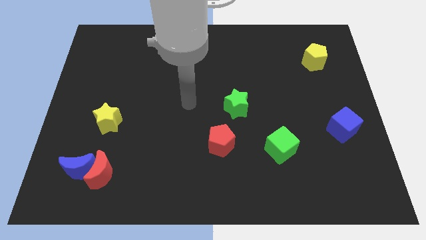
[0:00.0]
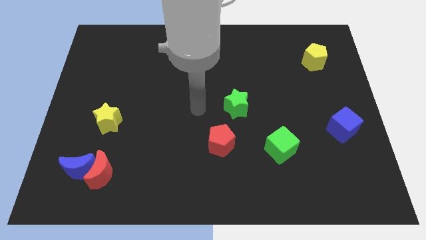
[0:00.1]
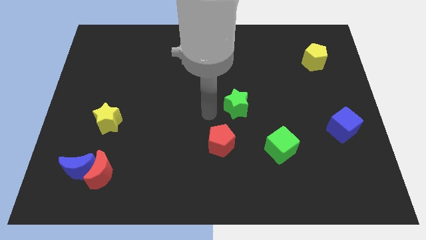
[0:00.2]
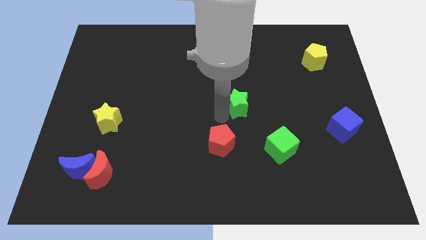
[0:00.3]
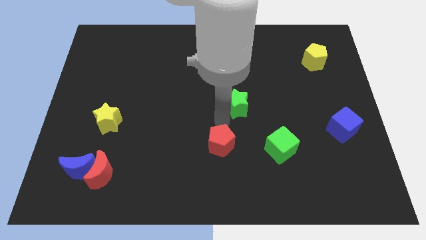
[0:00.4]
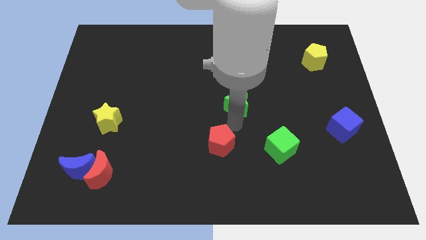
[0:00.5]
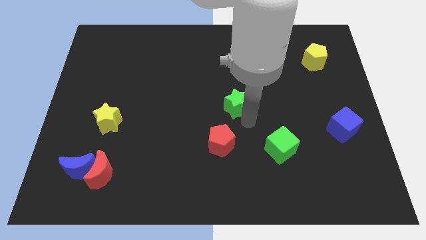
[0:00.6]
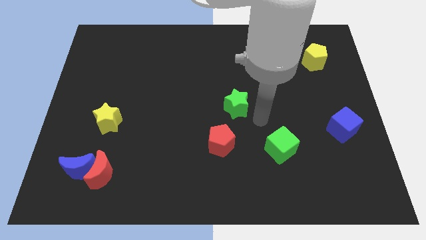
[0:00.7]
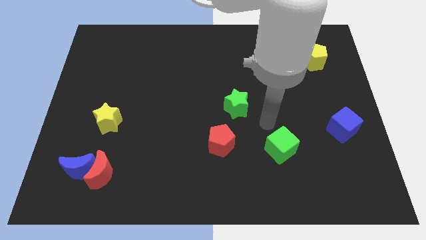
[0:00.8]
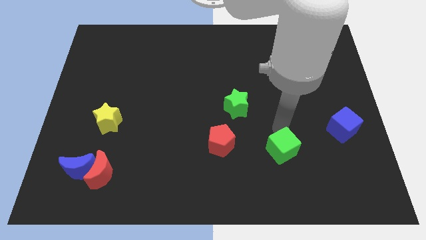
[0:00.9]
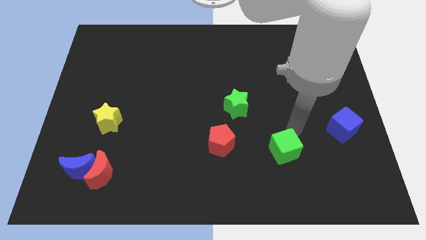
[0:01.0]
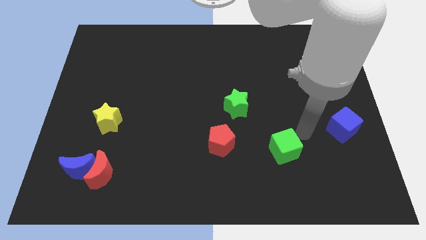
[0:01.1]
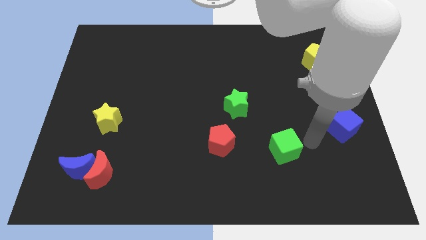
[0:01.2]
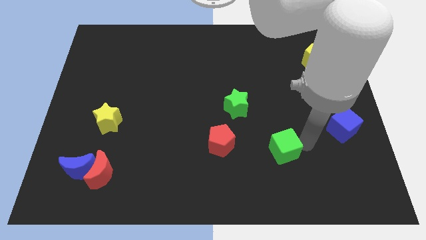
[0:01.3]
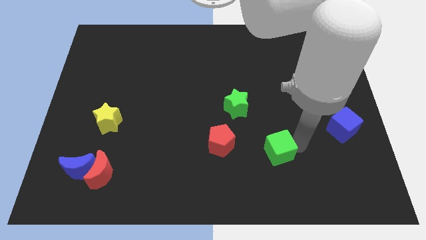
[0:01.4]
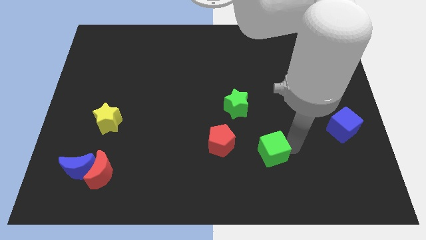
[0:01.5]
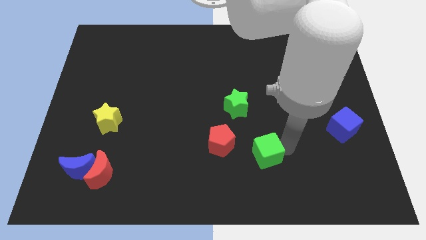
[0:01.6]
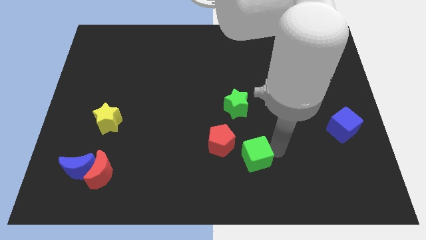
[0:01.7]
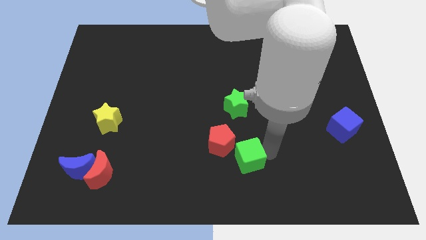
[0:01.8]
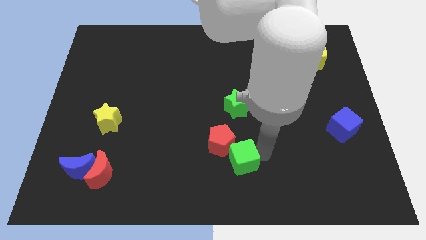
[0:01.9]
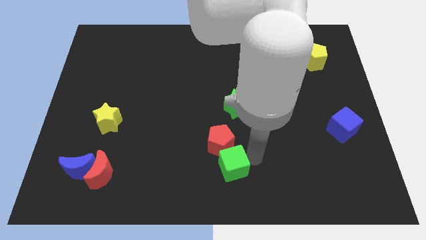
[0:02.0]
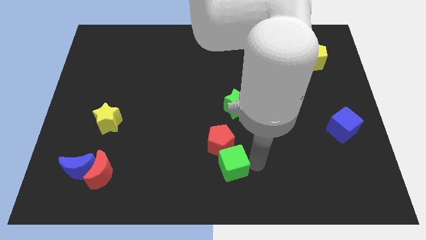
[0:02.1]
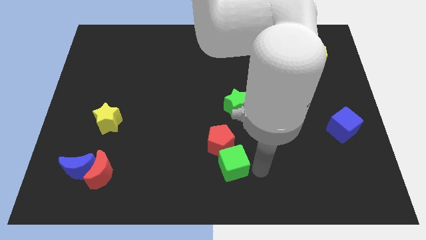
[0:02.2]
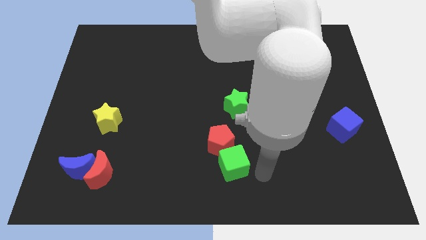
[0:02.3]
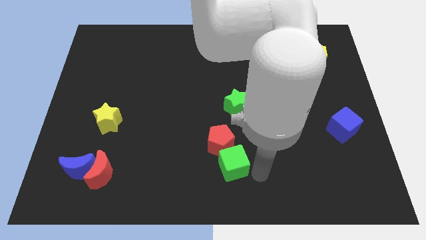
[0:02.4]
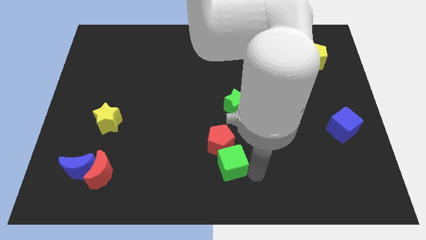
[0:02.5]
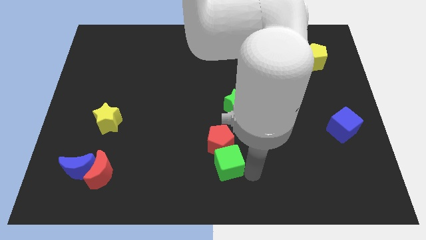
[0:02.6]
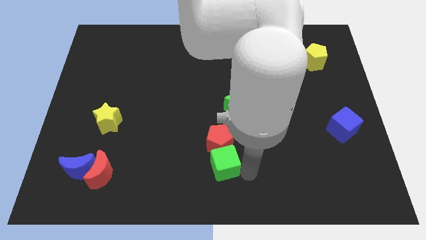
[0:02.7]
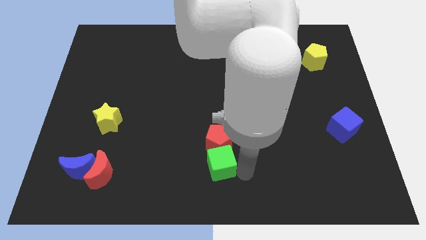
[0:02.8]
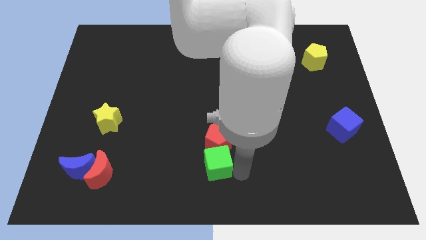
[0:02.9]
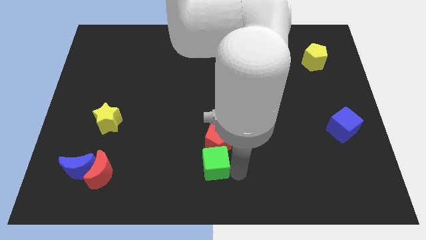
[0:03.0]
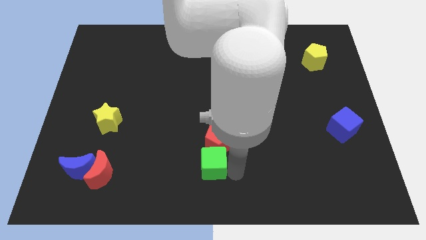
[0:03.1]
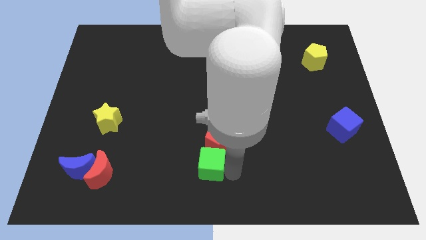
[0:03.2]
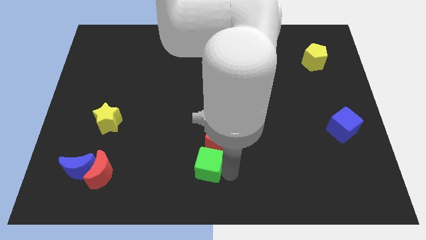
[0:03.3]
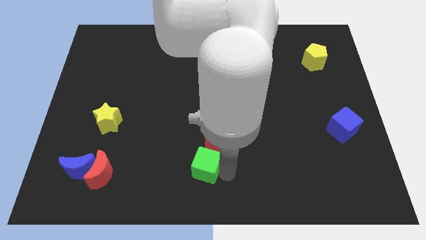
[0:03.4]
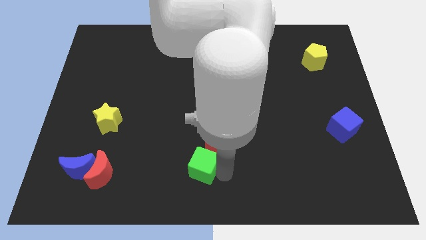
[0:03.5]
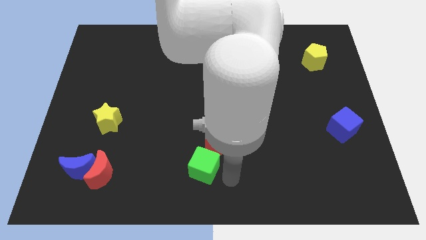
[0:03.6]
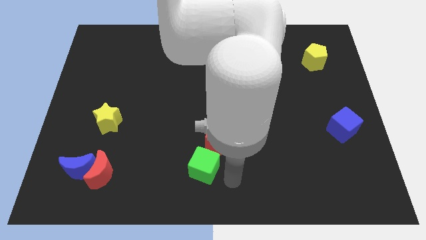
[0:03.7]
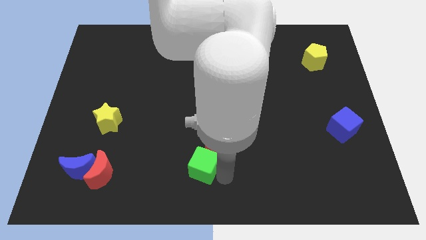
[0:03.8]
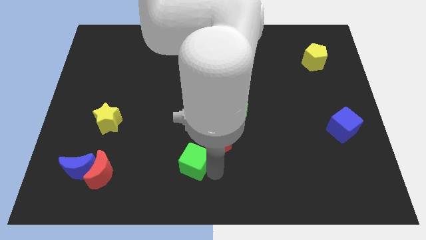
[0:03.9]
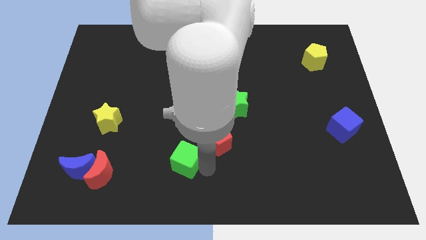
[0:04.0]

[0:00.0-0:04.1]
slide the green cube left

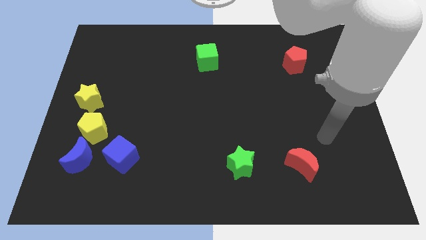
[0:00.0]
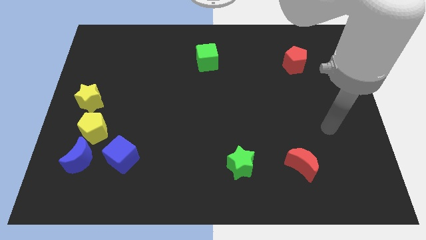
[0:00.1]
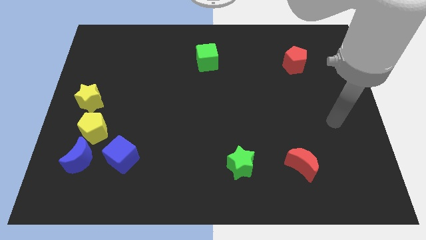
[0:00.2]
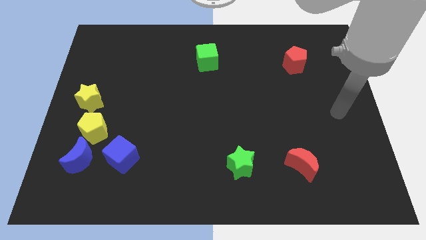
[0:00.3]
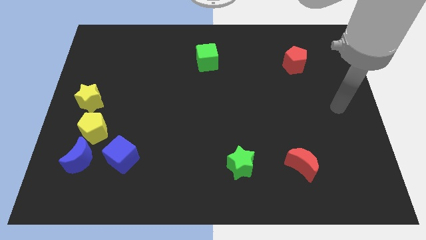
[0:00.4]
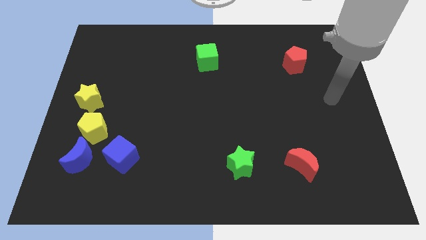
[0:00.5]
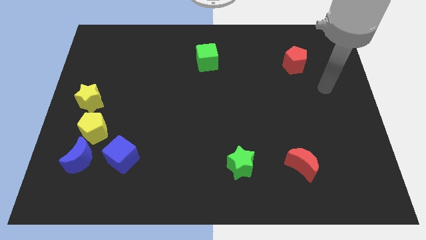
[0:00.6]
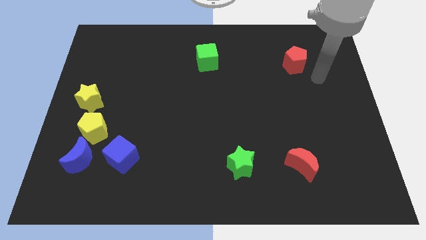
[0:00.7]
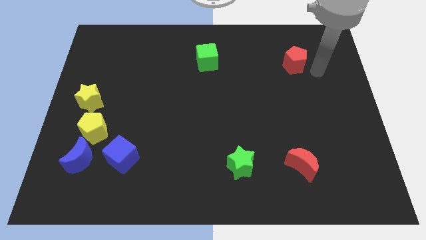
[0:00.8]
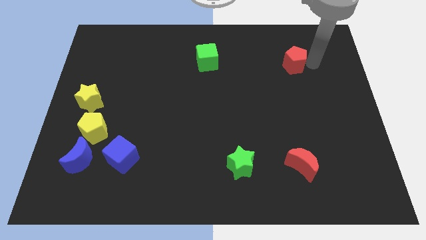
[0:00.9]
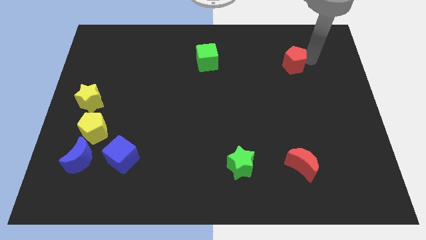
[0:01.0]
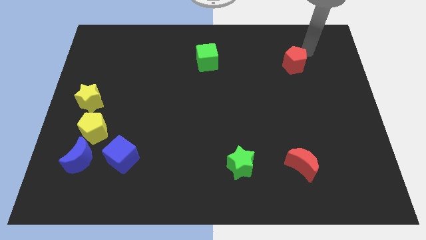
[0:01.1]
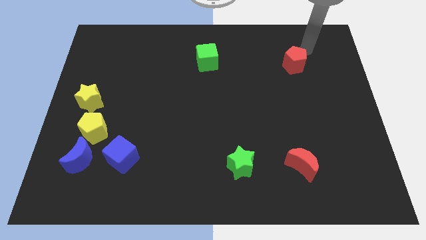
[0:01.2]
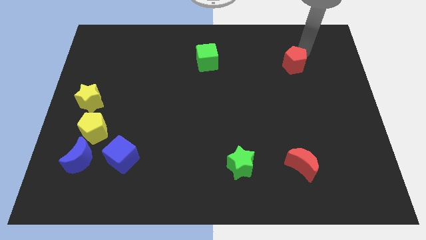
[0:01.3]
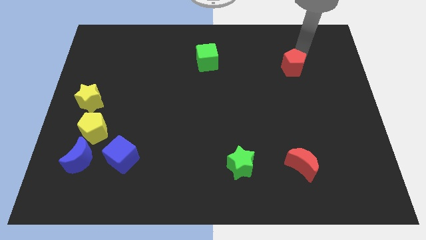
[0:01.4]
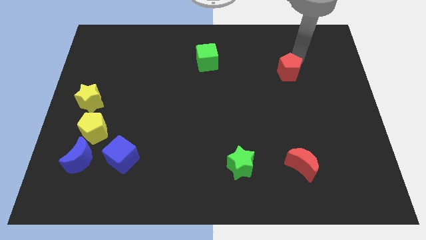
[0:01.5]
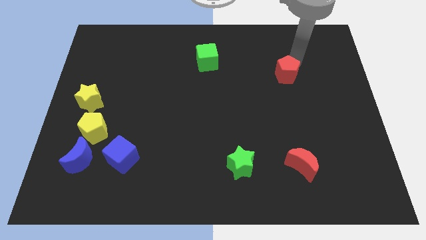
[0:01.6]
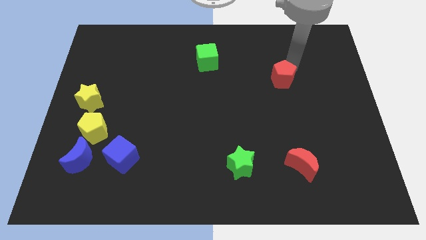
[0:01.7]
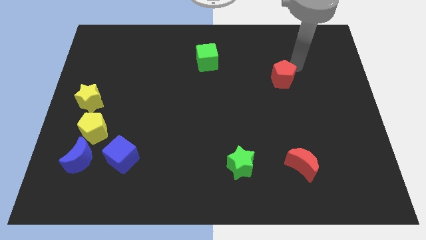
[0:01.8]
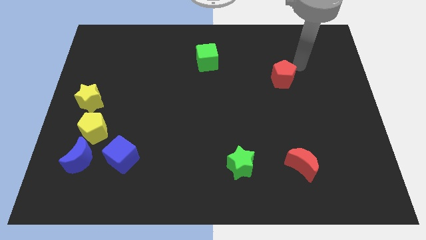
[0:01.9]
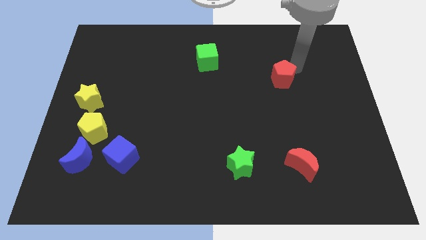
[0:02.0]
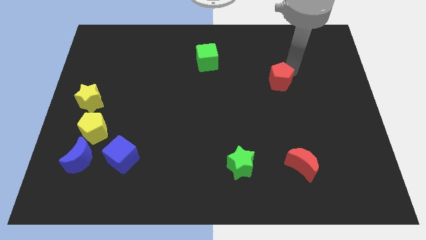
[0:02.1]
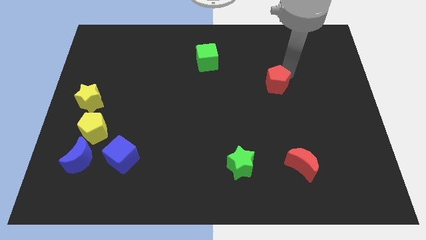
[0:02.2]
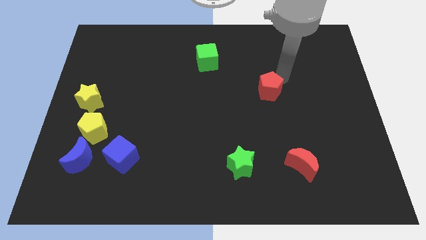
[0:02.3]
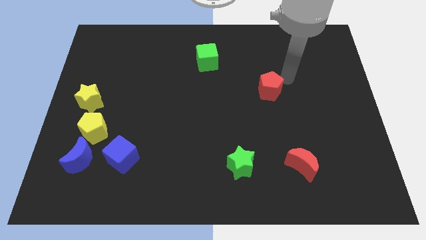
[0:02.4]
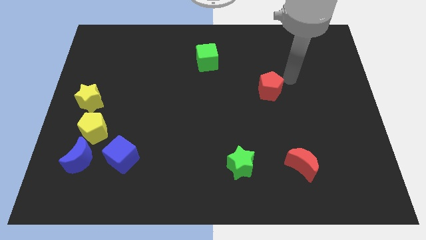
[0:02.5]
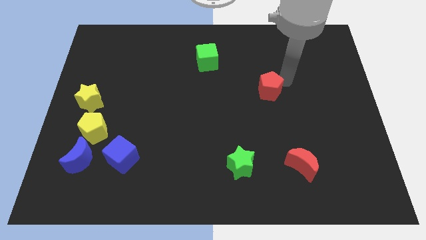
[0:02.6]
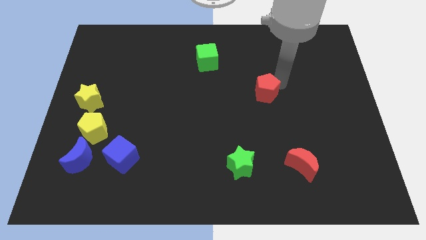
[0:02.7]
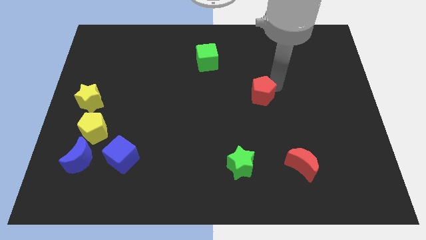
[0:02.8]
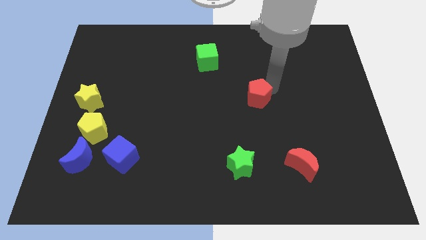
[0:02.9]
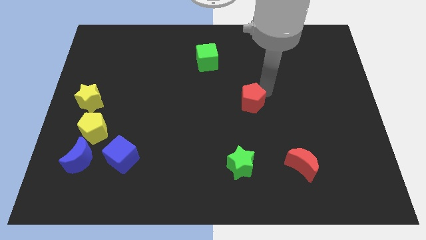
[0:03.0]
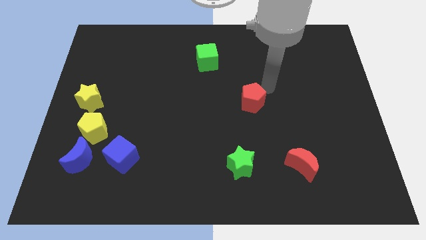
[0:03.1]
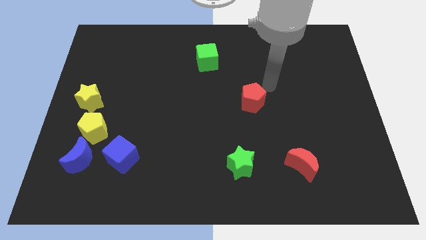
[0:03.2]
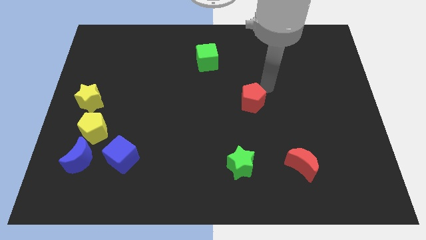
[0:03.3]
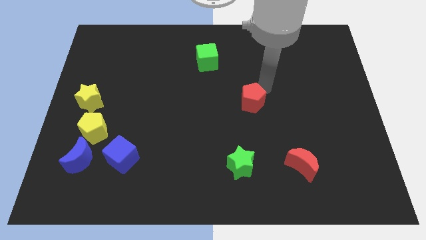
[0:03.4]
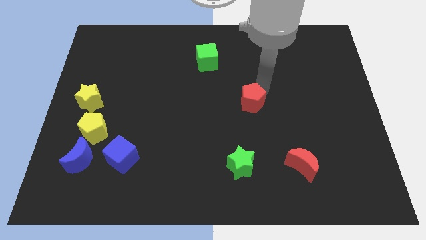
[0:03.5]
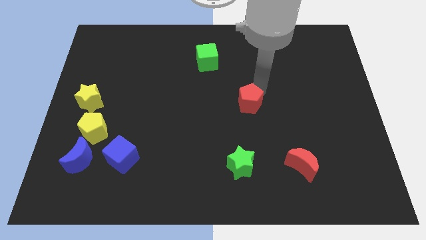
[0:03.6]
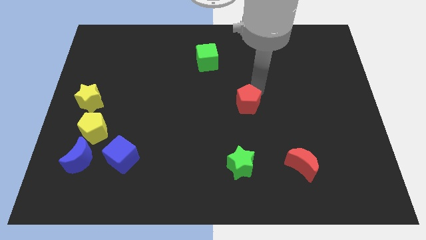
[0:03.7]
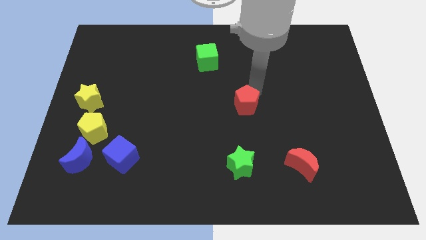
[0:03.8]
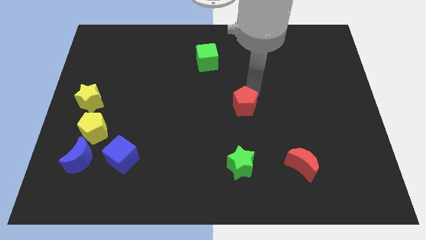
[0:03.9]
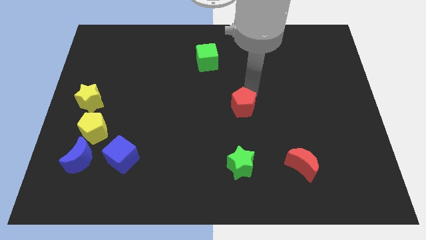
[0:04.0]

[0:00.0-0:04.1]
slide the red pentagon downwards and then to the left

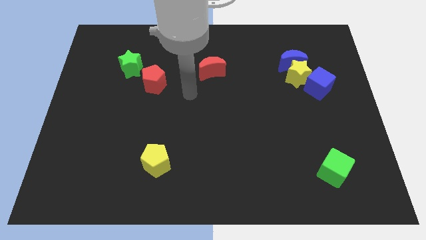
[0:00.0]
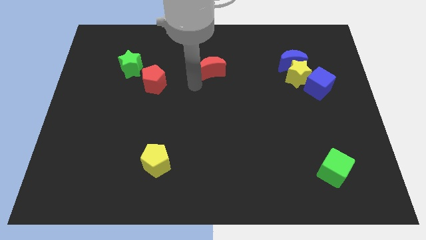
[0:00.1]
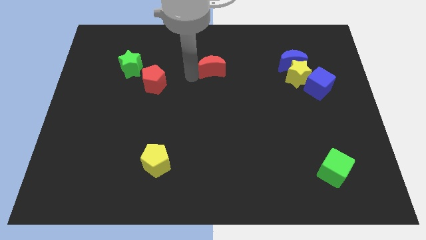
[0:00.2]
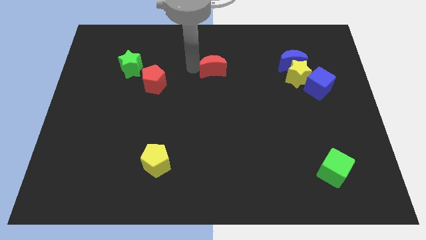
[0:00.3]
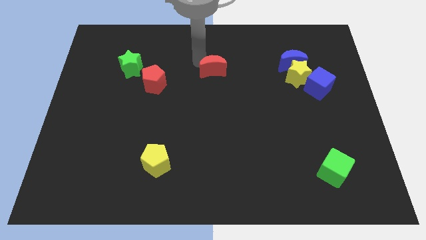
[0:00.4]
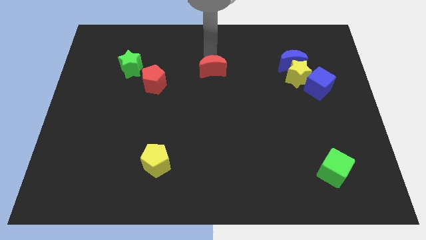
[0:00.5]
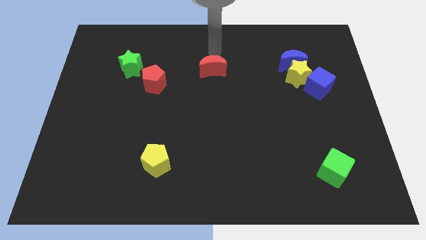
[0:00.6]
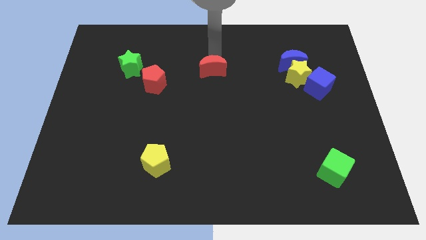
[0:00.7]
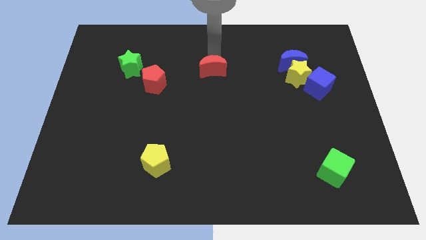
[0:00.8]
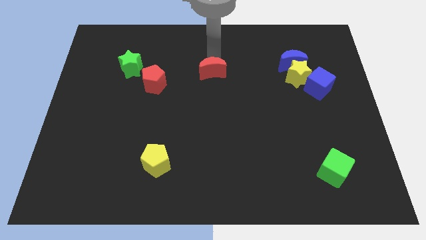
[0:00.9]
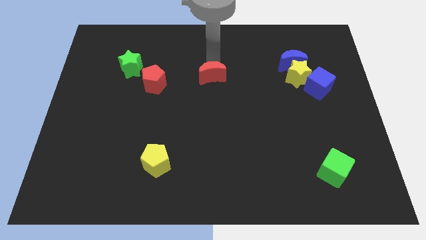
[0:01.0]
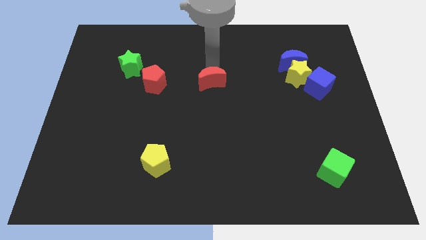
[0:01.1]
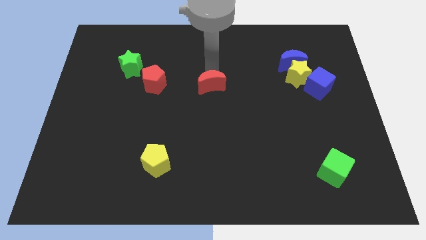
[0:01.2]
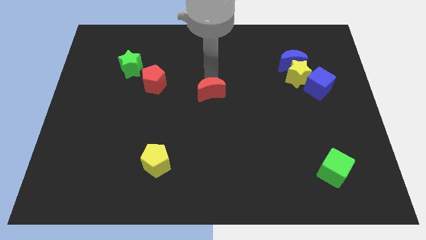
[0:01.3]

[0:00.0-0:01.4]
slightly move the red moon downwards
